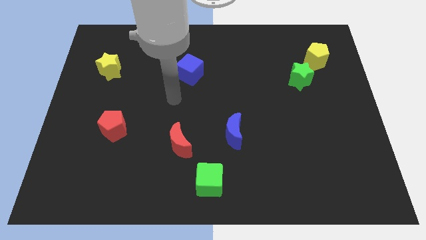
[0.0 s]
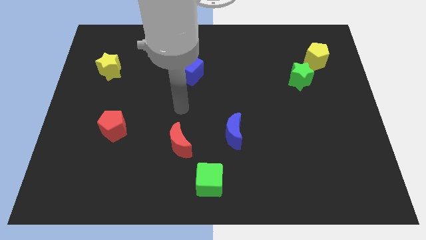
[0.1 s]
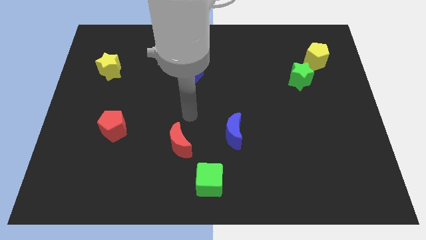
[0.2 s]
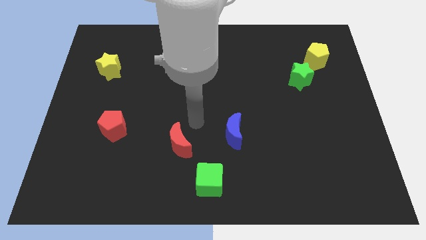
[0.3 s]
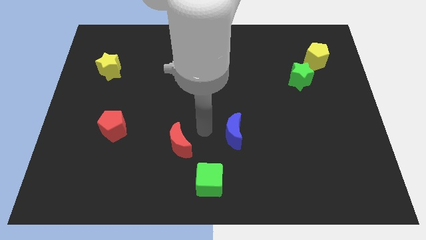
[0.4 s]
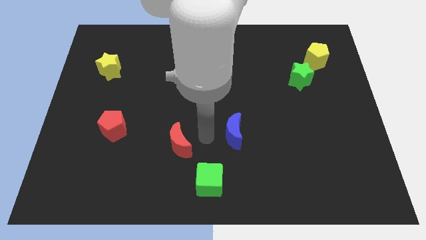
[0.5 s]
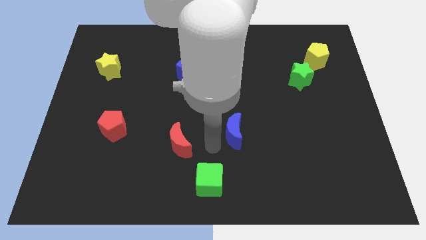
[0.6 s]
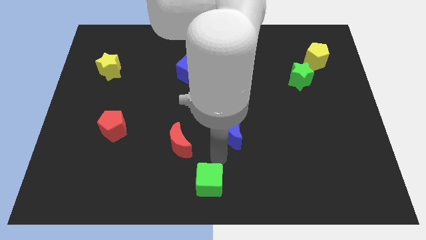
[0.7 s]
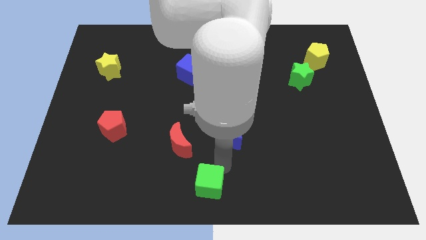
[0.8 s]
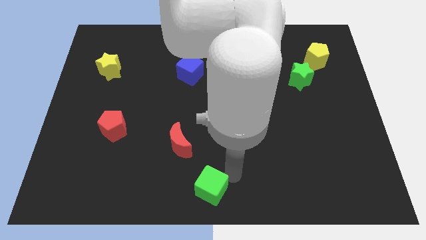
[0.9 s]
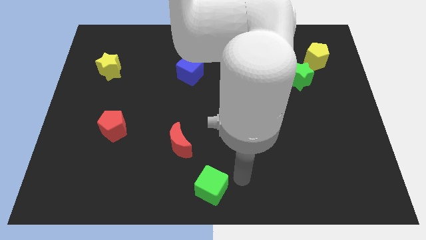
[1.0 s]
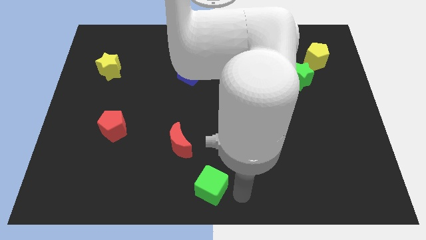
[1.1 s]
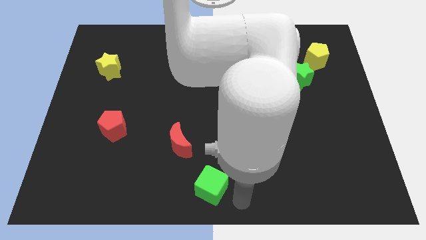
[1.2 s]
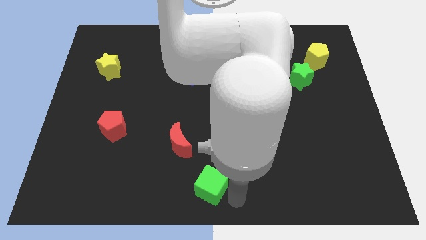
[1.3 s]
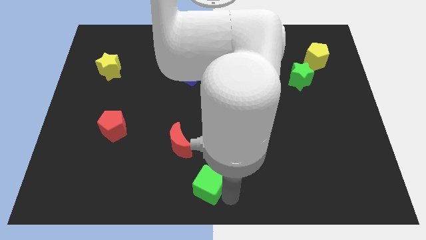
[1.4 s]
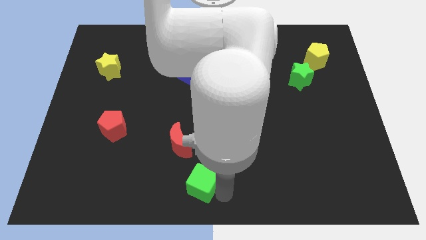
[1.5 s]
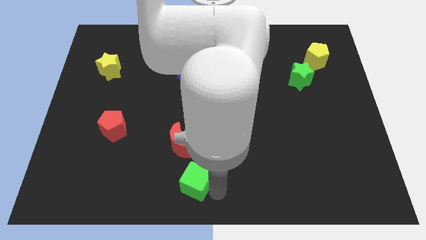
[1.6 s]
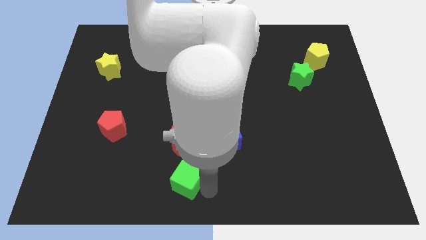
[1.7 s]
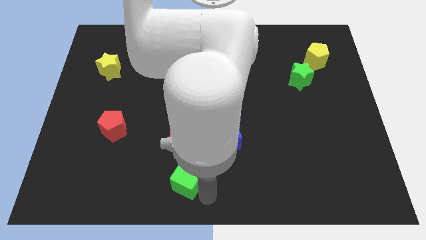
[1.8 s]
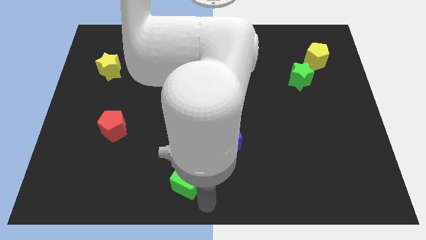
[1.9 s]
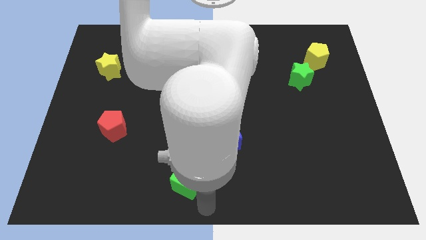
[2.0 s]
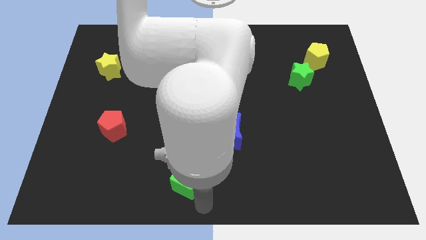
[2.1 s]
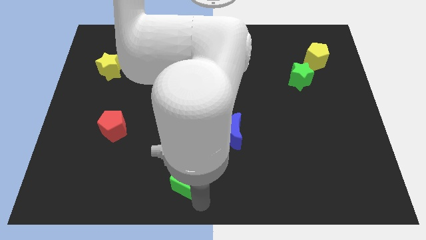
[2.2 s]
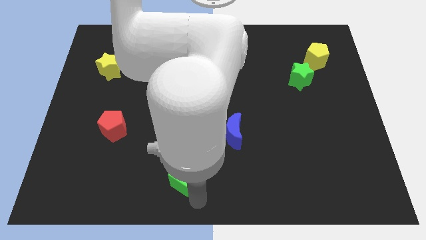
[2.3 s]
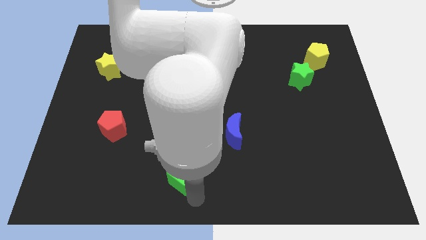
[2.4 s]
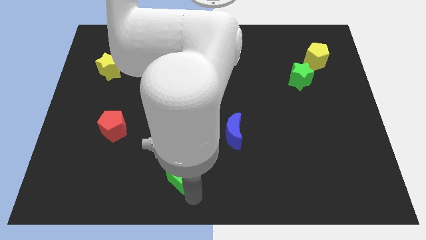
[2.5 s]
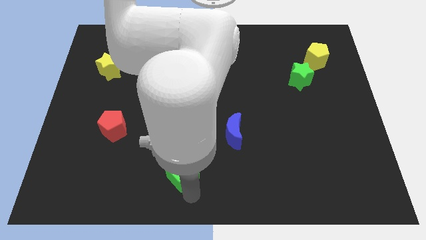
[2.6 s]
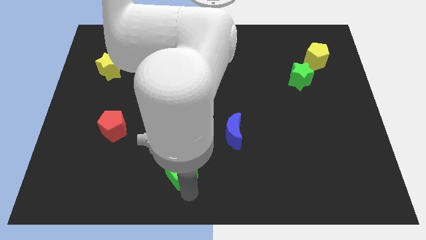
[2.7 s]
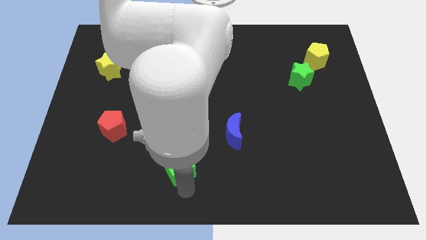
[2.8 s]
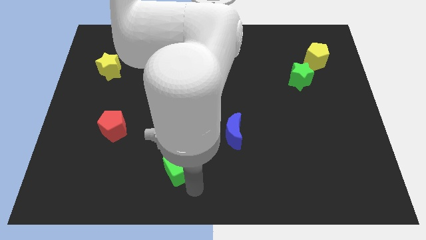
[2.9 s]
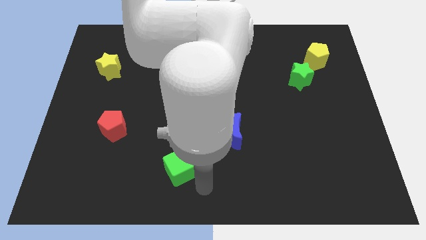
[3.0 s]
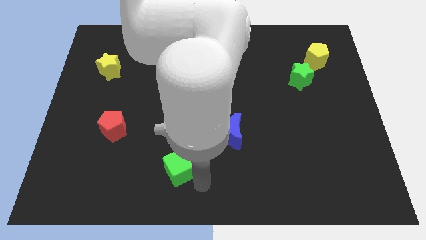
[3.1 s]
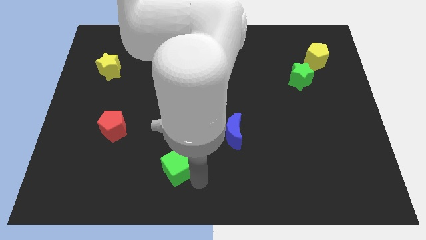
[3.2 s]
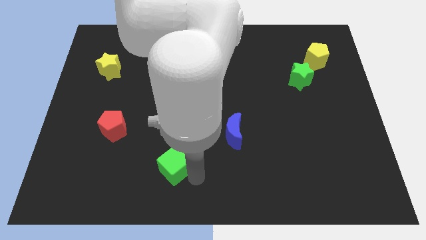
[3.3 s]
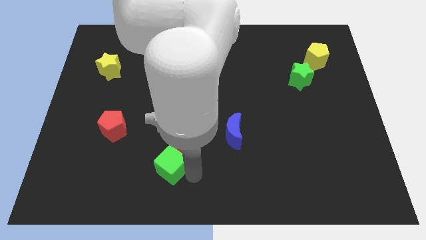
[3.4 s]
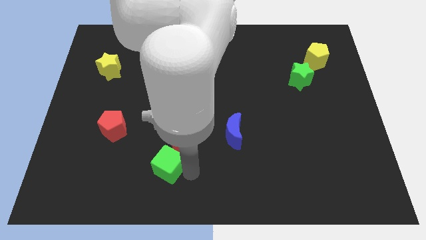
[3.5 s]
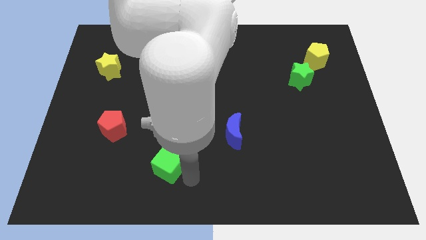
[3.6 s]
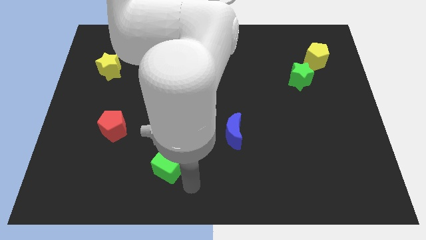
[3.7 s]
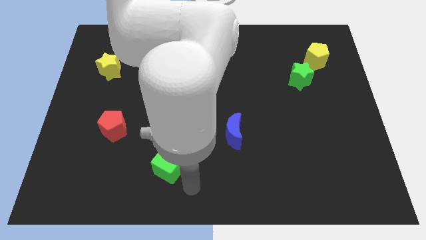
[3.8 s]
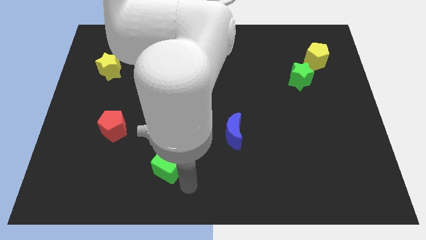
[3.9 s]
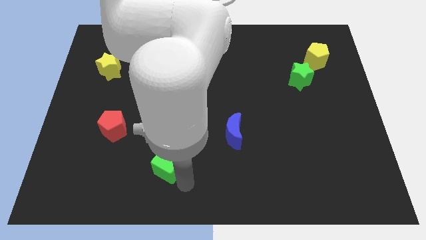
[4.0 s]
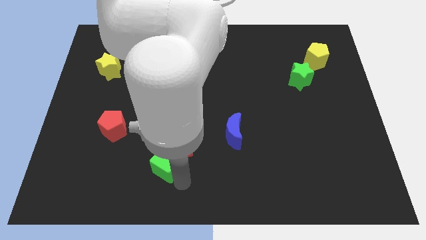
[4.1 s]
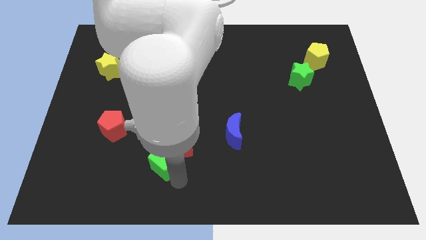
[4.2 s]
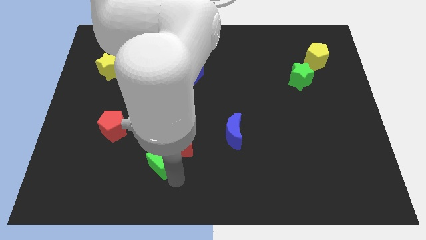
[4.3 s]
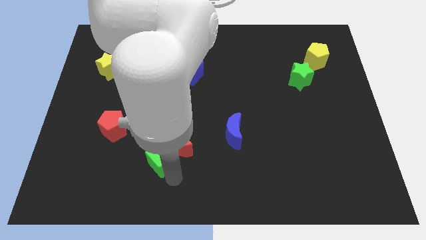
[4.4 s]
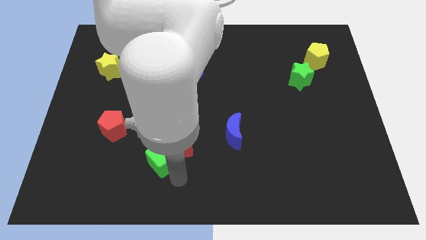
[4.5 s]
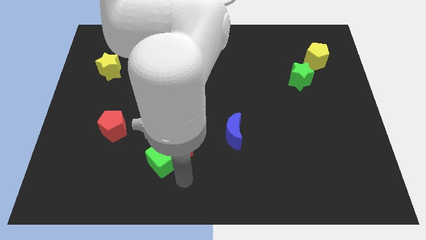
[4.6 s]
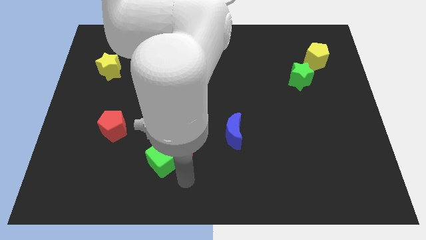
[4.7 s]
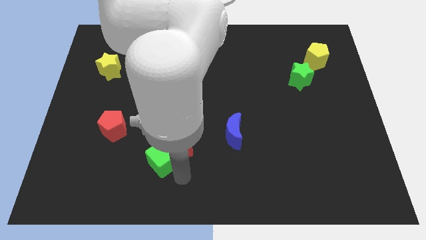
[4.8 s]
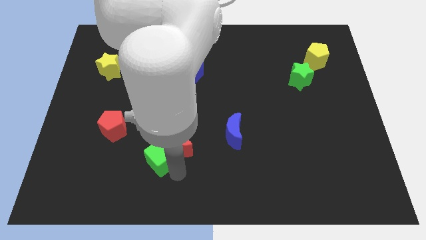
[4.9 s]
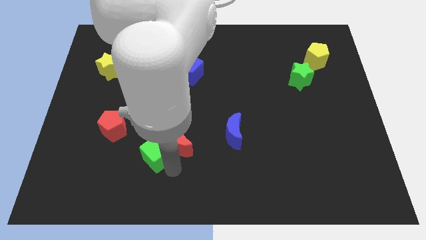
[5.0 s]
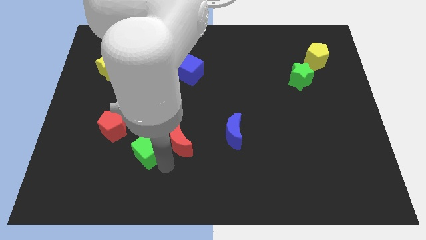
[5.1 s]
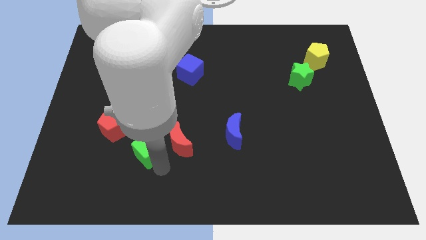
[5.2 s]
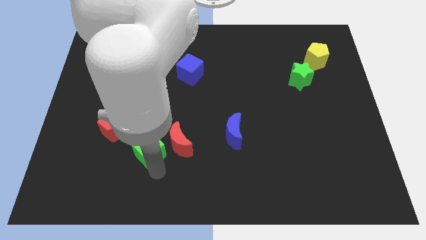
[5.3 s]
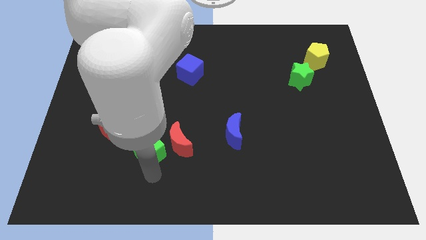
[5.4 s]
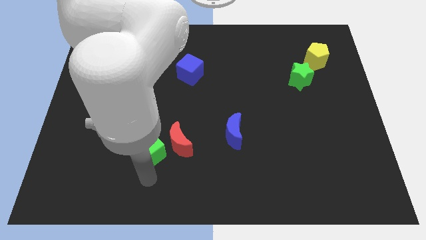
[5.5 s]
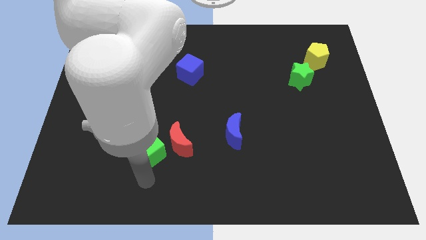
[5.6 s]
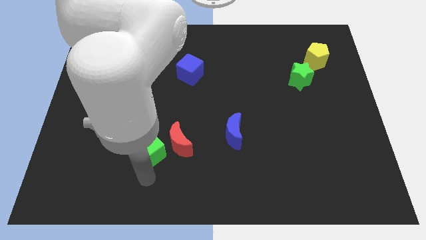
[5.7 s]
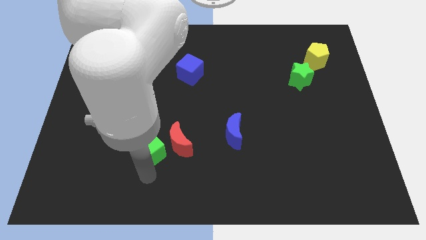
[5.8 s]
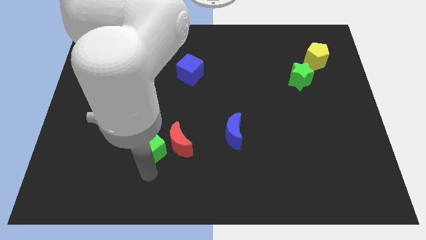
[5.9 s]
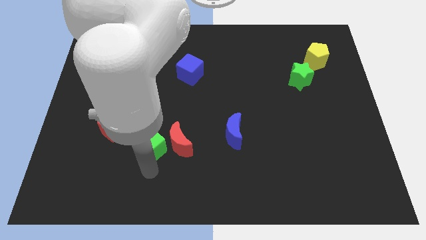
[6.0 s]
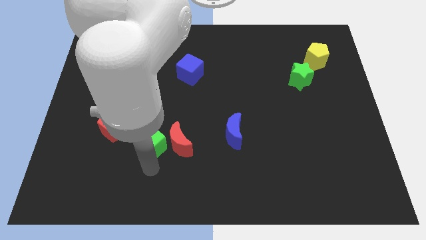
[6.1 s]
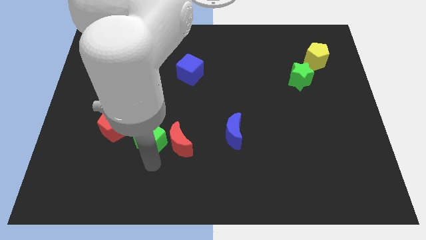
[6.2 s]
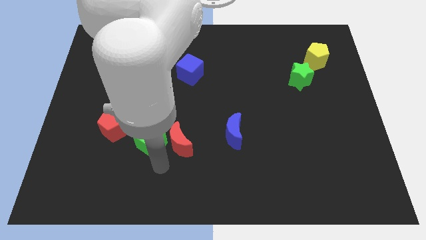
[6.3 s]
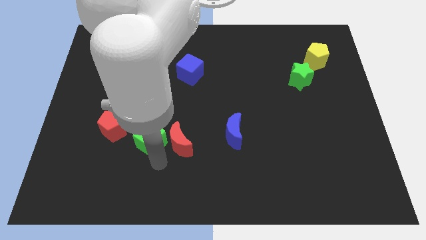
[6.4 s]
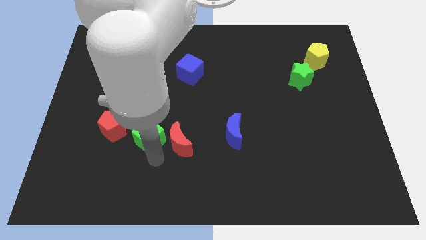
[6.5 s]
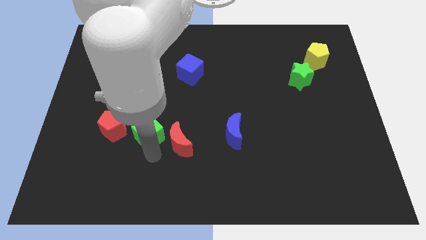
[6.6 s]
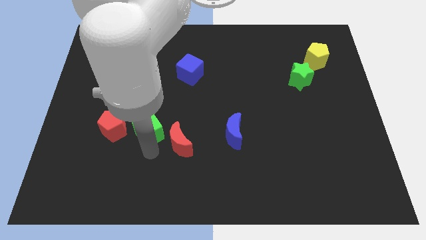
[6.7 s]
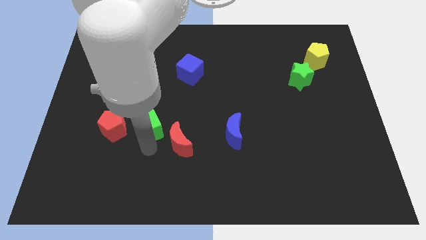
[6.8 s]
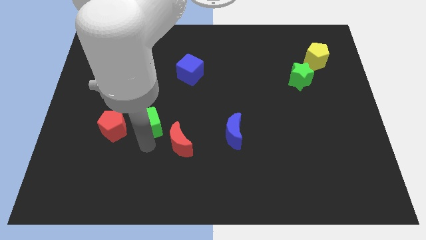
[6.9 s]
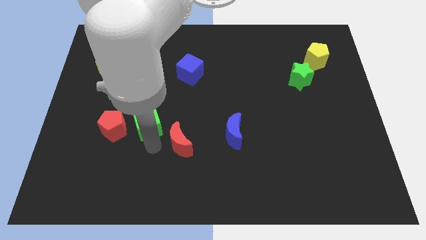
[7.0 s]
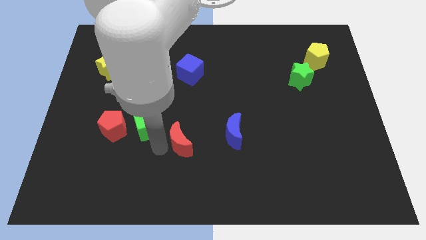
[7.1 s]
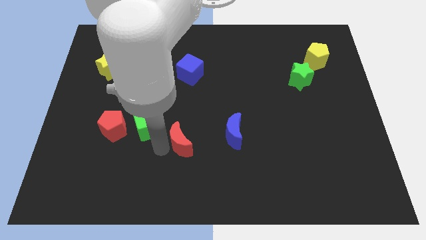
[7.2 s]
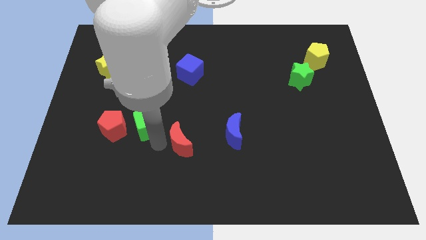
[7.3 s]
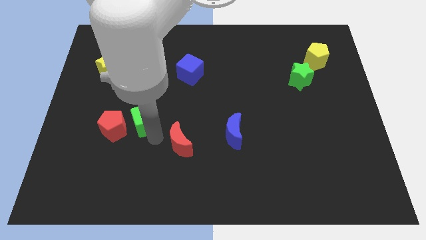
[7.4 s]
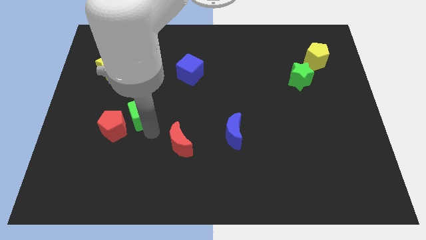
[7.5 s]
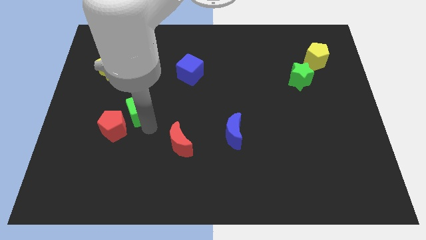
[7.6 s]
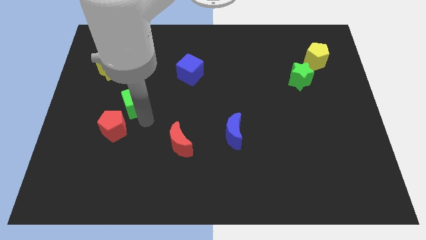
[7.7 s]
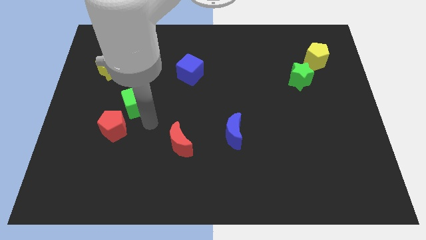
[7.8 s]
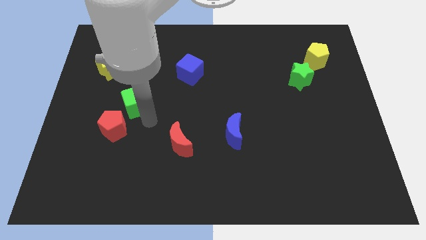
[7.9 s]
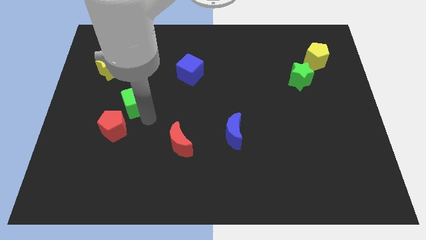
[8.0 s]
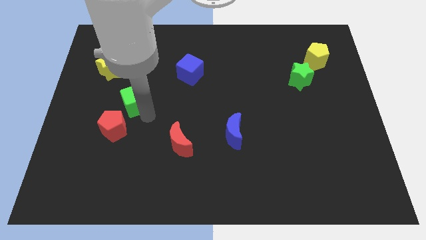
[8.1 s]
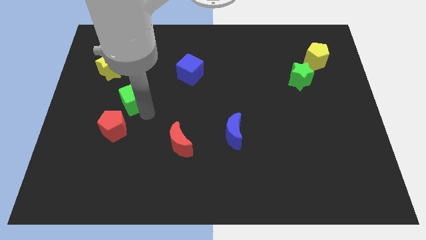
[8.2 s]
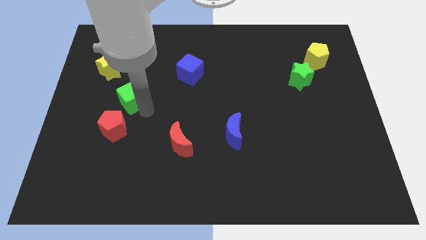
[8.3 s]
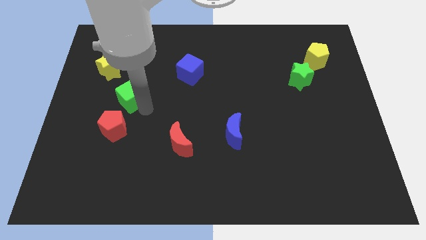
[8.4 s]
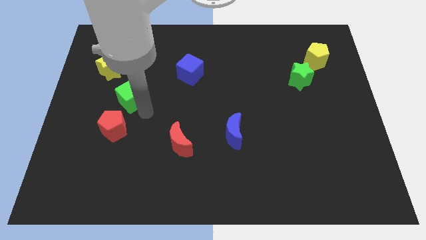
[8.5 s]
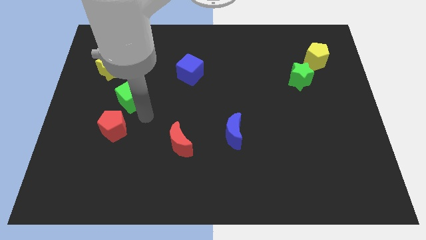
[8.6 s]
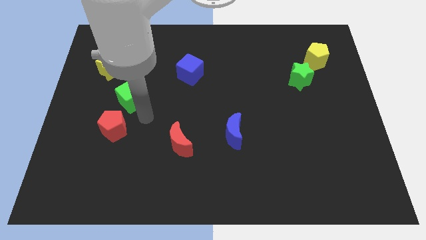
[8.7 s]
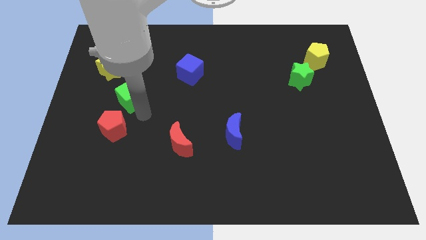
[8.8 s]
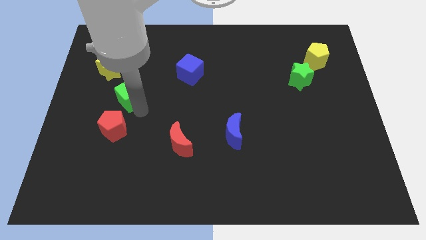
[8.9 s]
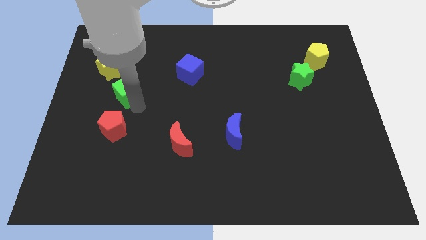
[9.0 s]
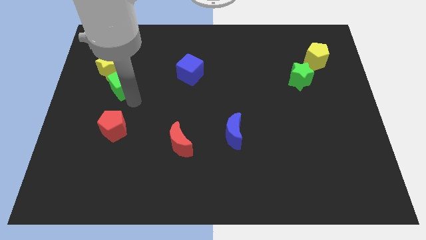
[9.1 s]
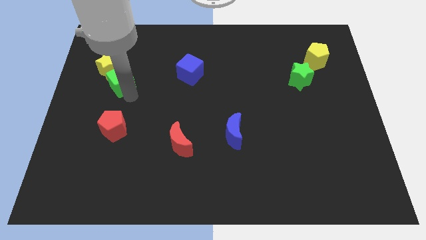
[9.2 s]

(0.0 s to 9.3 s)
move the green cube close to the yellow star
